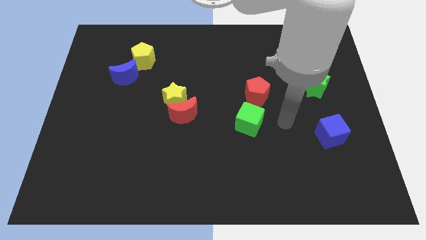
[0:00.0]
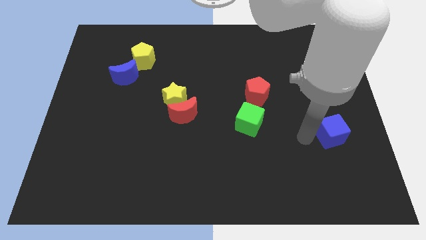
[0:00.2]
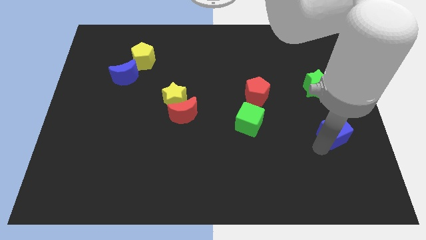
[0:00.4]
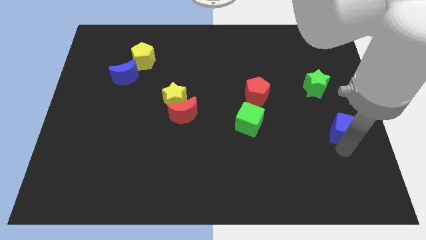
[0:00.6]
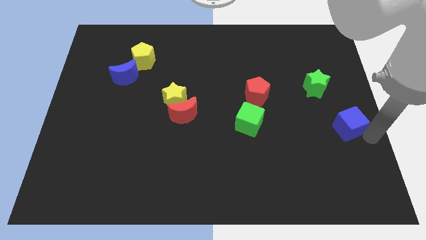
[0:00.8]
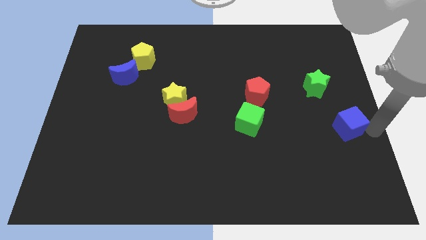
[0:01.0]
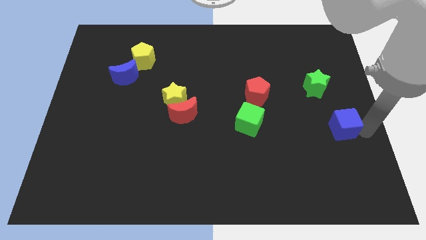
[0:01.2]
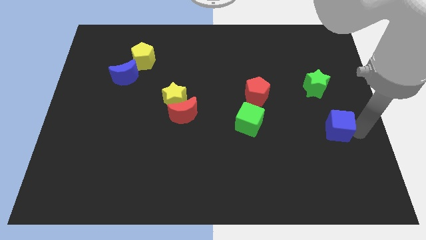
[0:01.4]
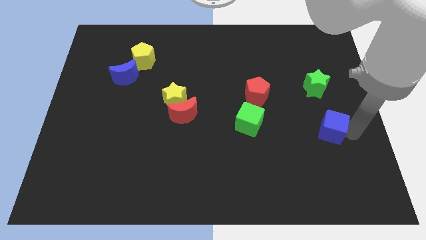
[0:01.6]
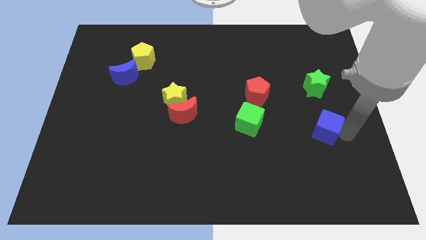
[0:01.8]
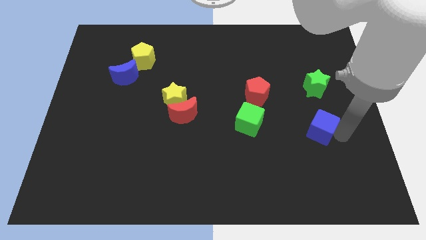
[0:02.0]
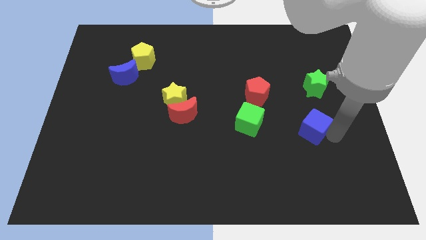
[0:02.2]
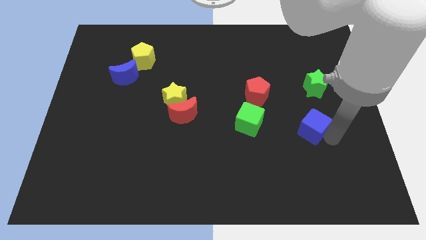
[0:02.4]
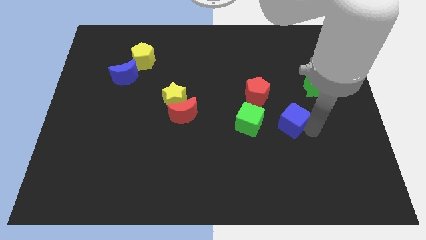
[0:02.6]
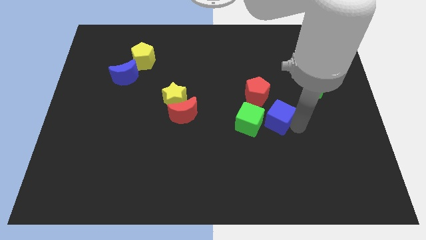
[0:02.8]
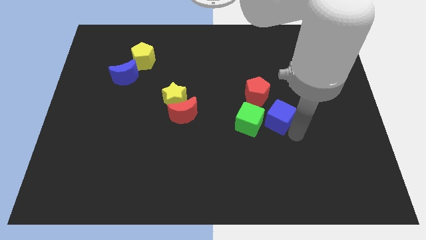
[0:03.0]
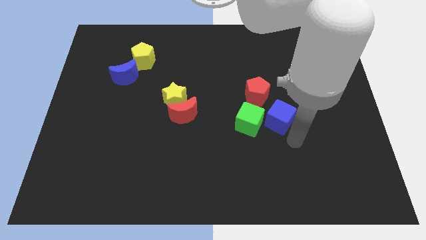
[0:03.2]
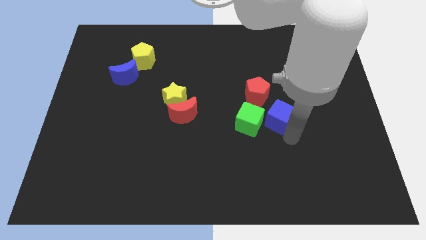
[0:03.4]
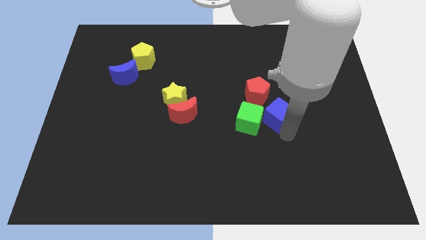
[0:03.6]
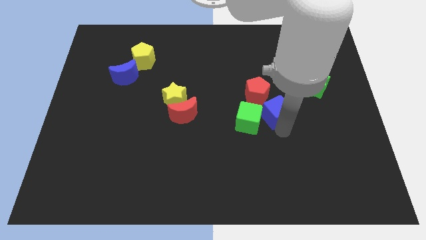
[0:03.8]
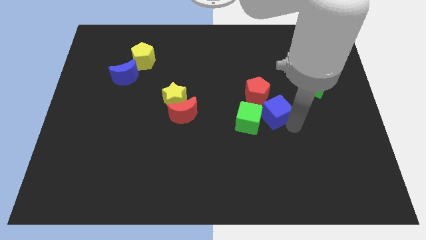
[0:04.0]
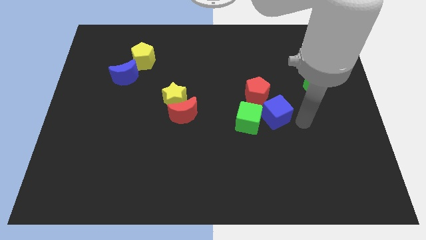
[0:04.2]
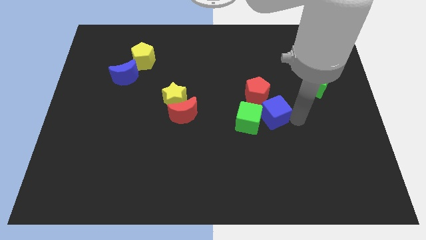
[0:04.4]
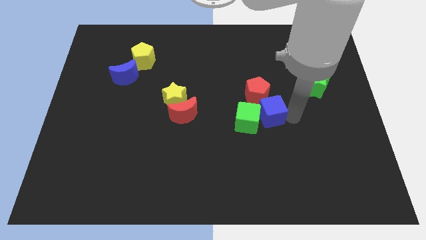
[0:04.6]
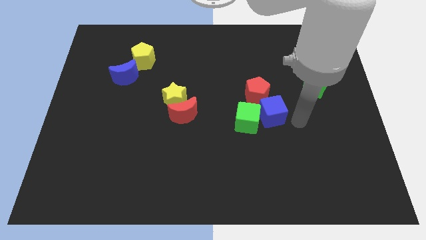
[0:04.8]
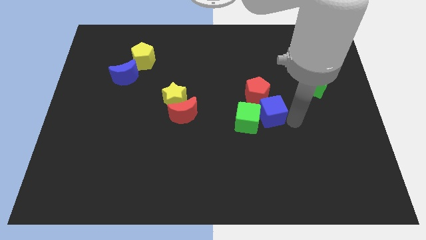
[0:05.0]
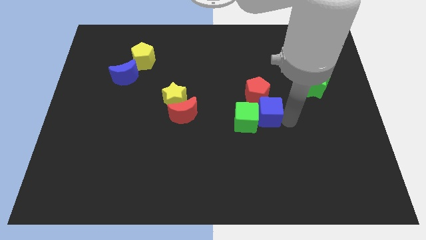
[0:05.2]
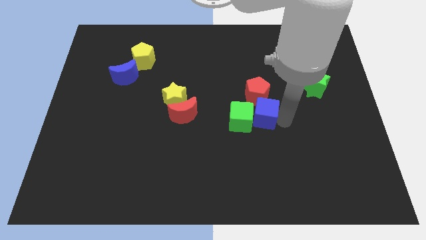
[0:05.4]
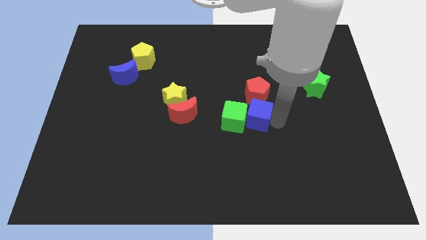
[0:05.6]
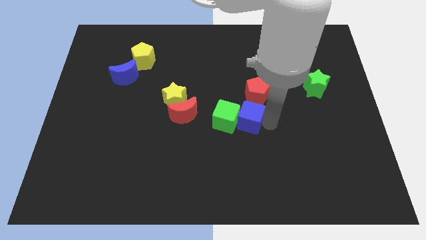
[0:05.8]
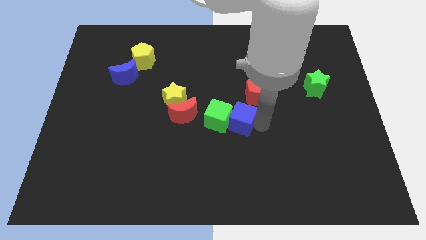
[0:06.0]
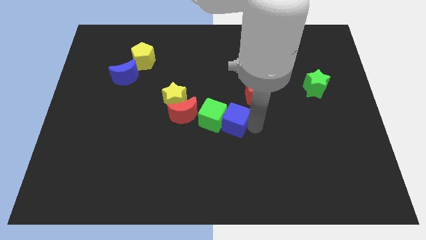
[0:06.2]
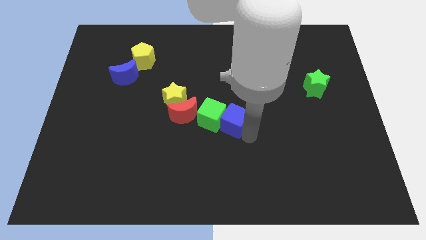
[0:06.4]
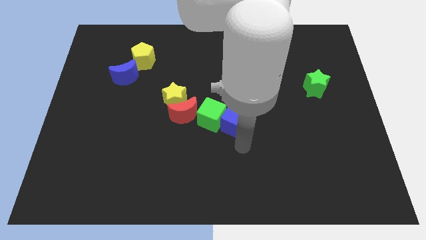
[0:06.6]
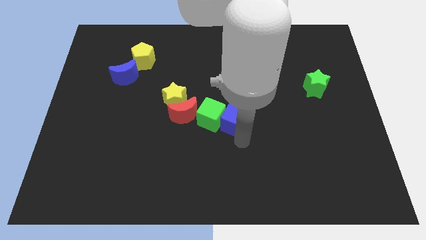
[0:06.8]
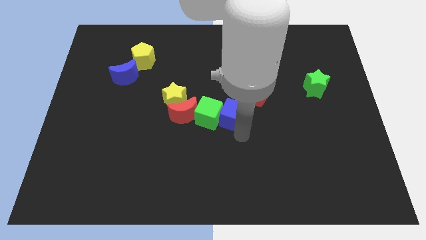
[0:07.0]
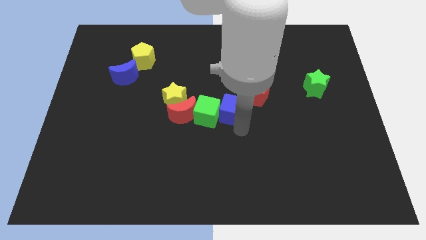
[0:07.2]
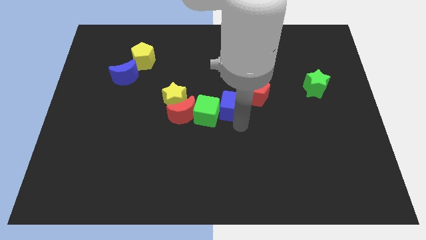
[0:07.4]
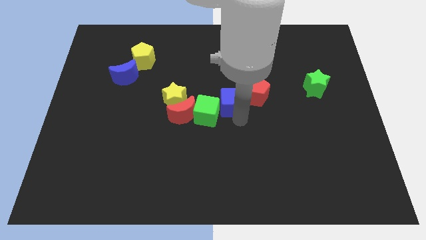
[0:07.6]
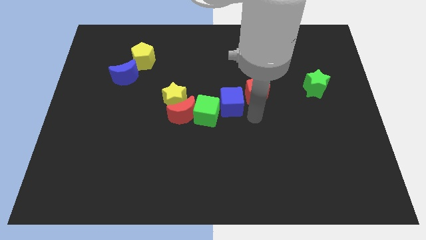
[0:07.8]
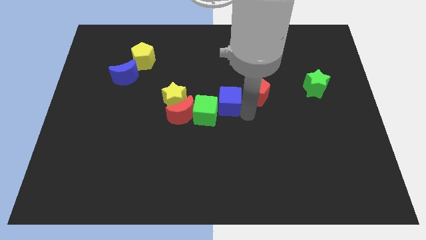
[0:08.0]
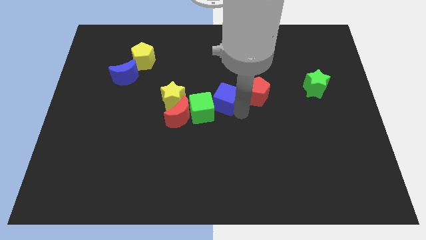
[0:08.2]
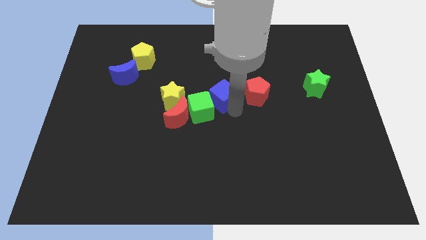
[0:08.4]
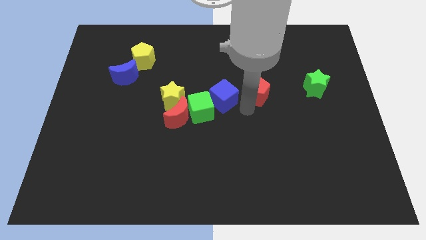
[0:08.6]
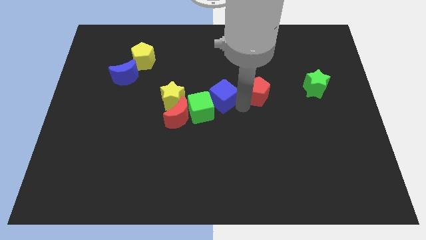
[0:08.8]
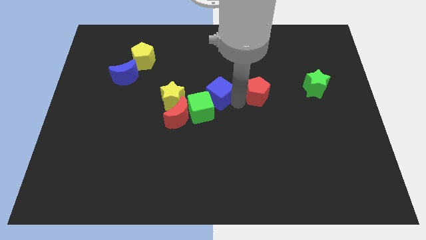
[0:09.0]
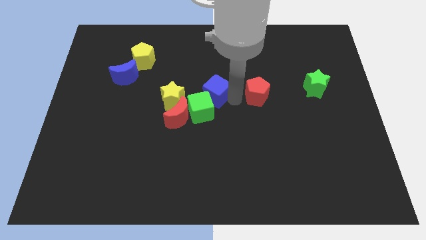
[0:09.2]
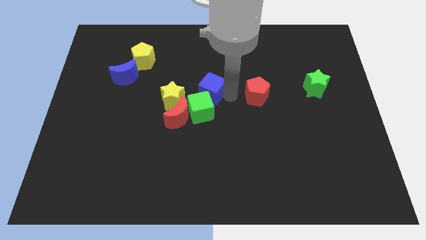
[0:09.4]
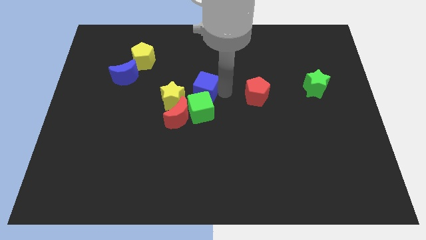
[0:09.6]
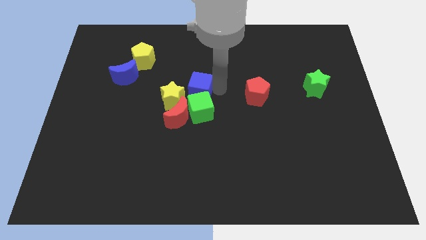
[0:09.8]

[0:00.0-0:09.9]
put the blue cube to the top side of the red moon

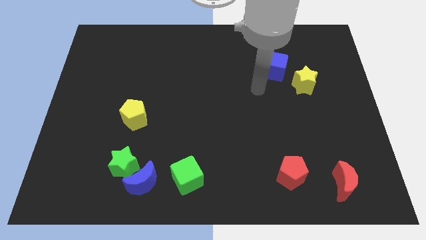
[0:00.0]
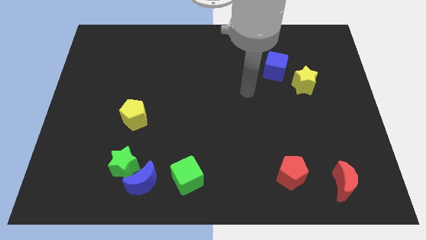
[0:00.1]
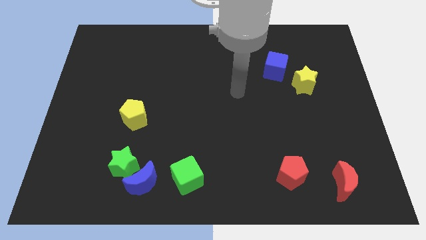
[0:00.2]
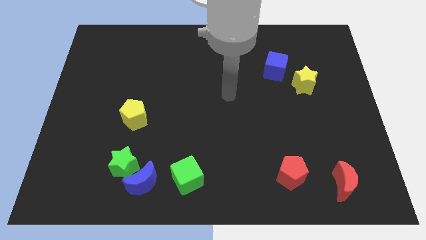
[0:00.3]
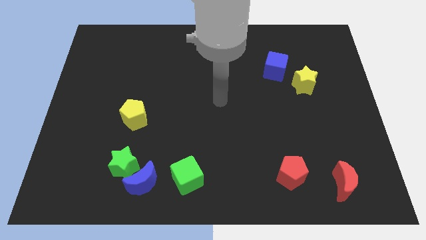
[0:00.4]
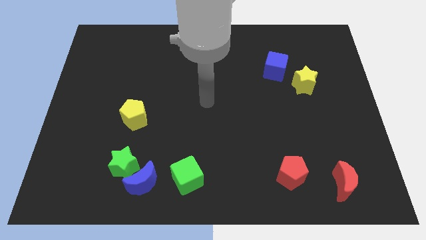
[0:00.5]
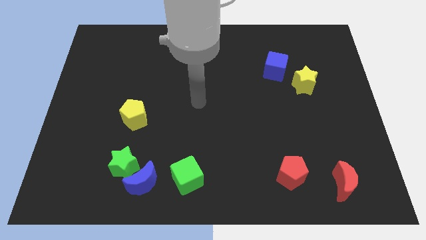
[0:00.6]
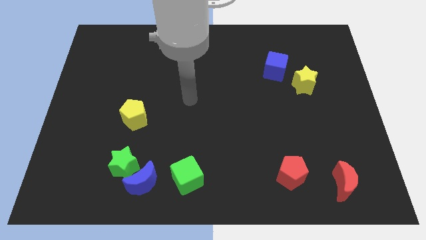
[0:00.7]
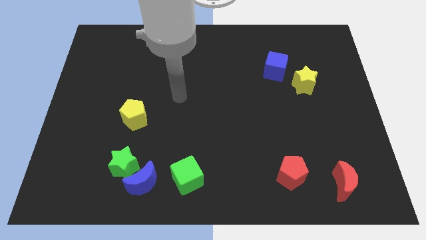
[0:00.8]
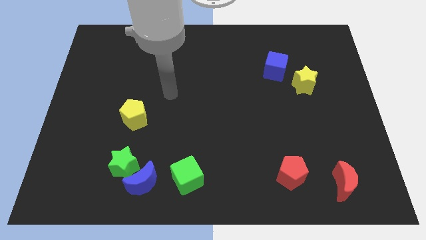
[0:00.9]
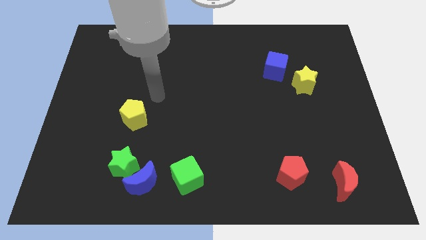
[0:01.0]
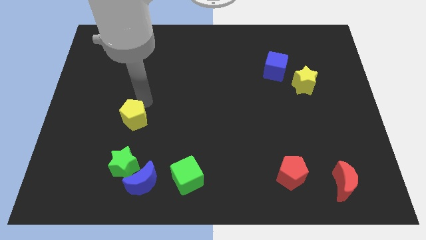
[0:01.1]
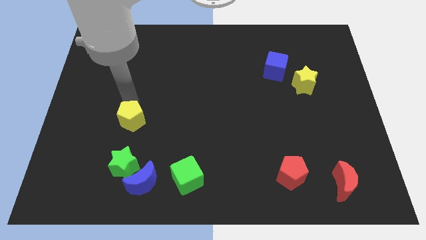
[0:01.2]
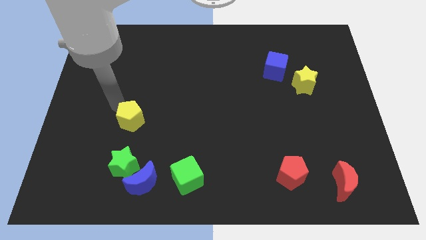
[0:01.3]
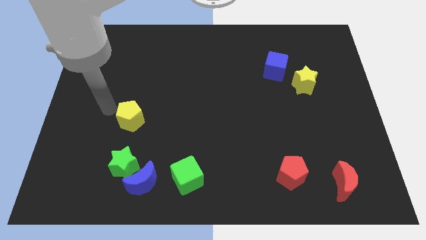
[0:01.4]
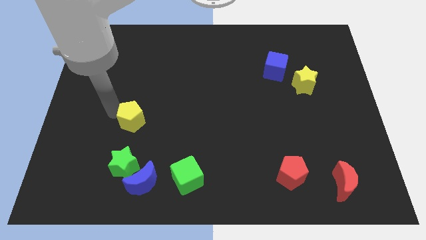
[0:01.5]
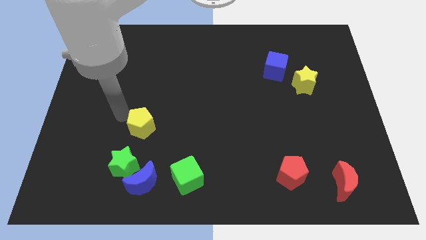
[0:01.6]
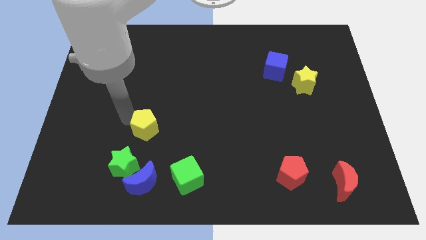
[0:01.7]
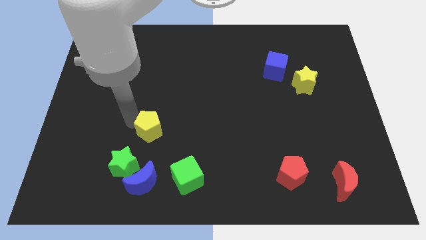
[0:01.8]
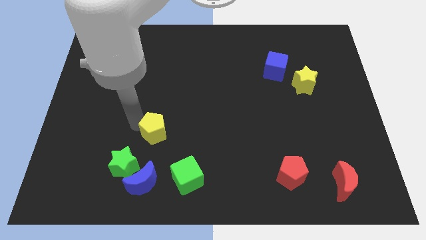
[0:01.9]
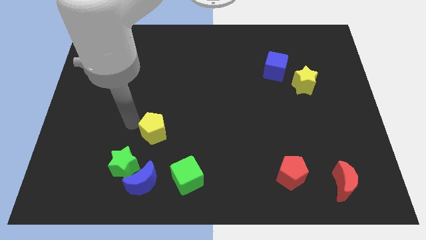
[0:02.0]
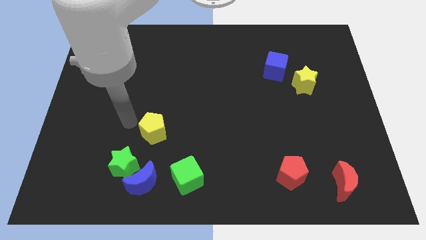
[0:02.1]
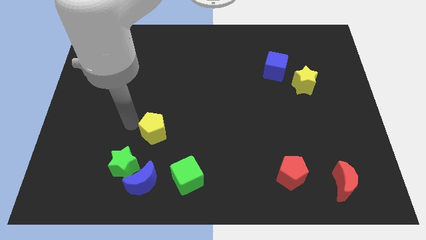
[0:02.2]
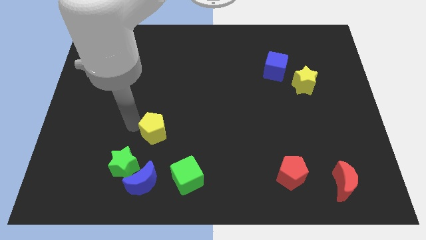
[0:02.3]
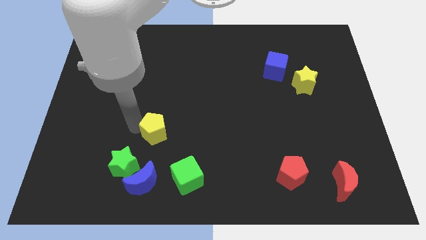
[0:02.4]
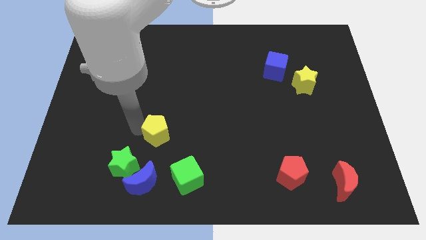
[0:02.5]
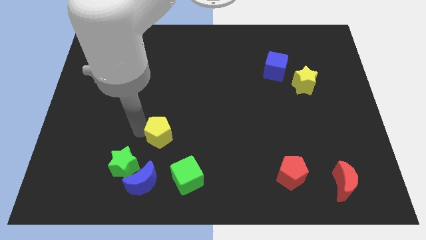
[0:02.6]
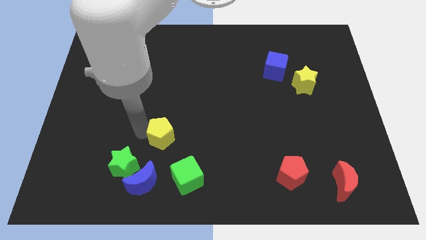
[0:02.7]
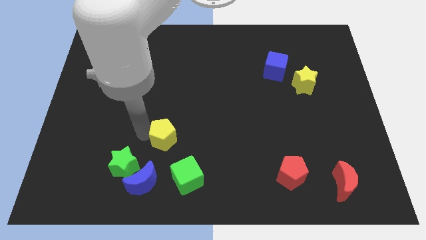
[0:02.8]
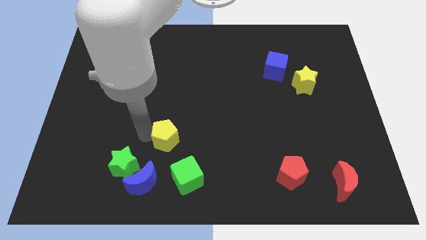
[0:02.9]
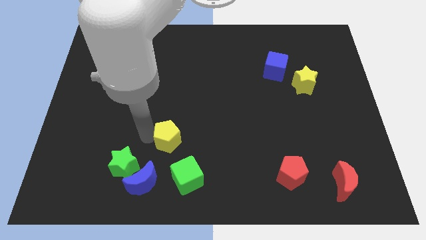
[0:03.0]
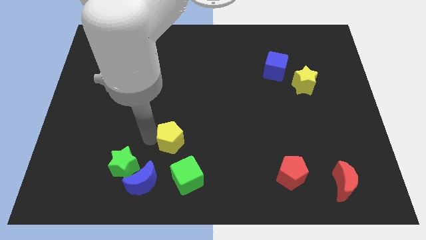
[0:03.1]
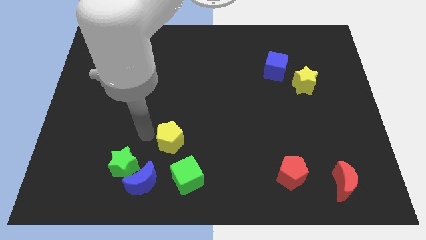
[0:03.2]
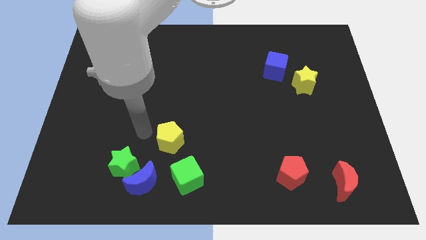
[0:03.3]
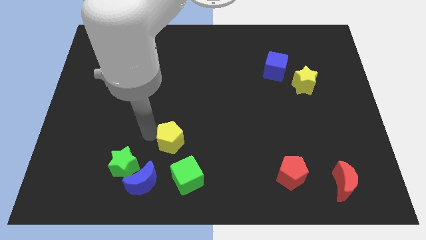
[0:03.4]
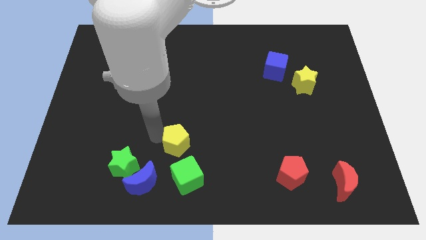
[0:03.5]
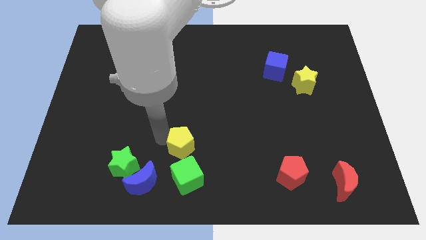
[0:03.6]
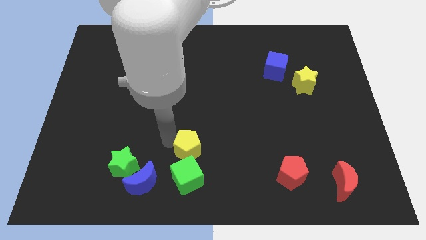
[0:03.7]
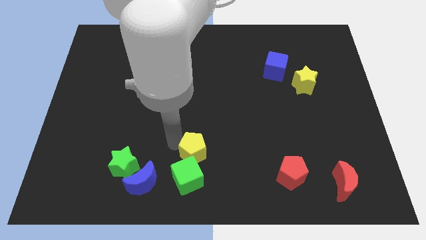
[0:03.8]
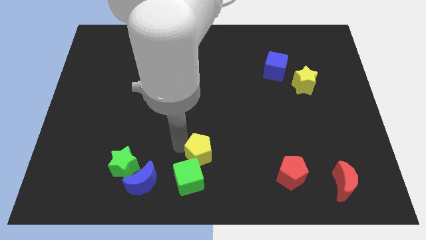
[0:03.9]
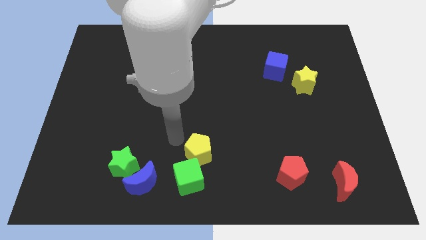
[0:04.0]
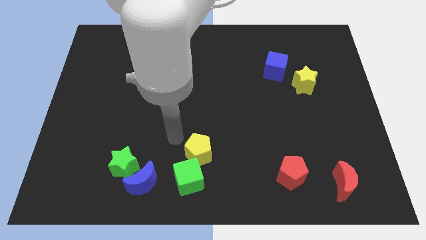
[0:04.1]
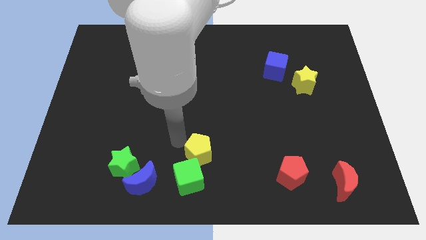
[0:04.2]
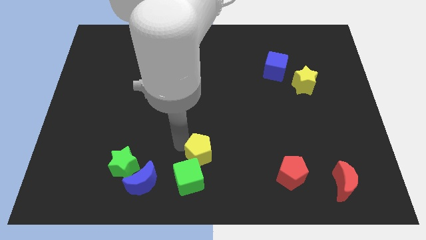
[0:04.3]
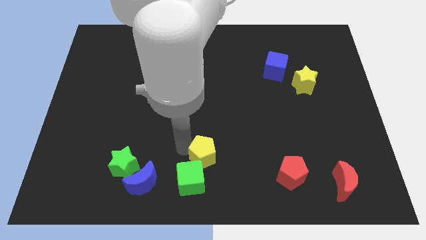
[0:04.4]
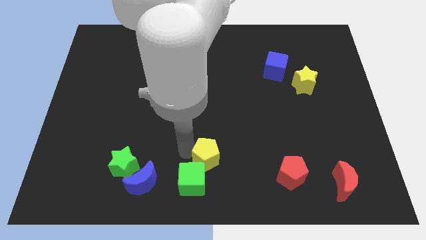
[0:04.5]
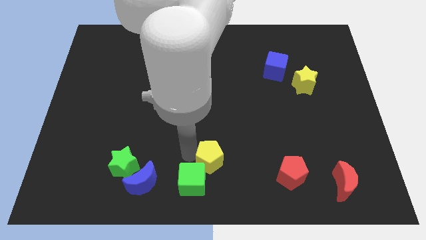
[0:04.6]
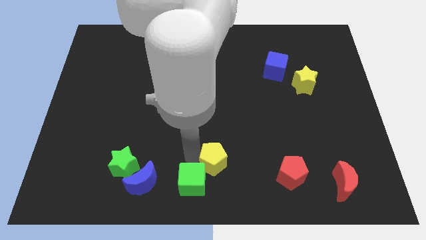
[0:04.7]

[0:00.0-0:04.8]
put the yellow pentagon right of the green cube
